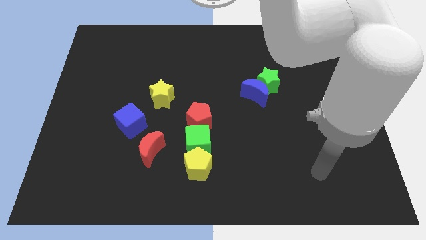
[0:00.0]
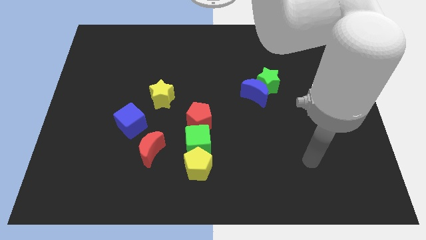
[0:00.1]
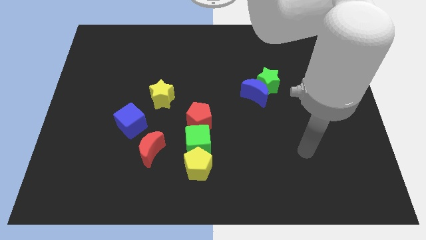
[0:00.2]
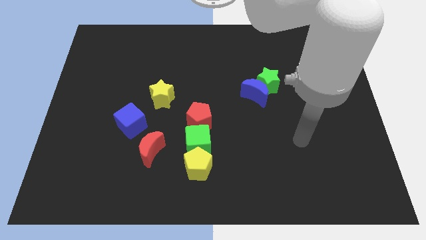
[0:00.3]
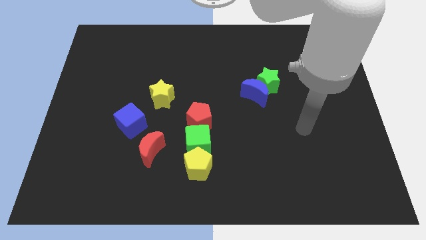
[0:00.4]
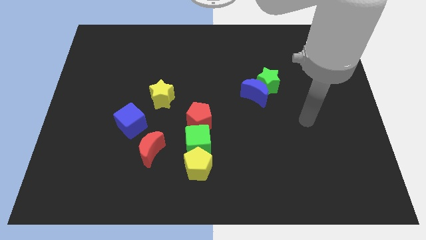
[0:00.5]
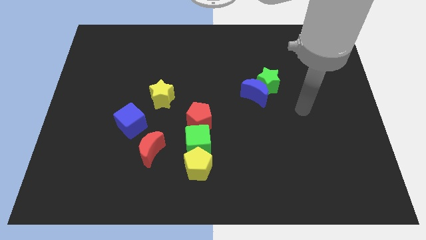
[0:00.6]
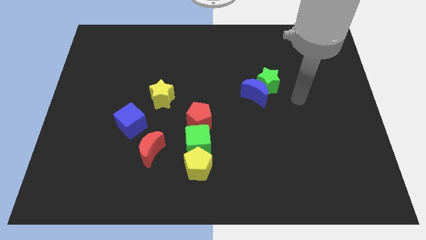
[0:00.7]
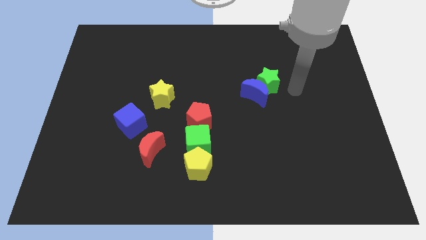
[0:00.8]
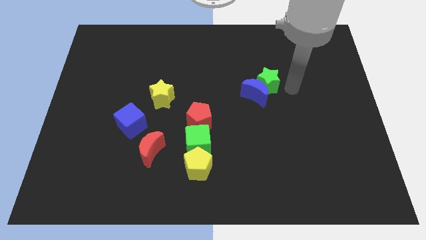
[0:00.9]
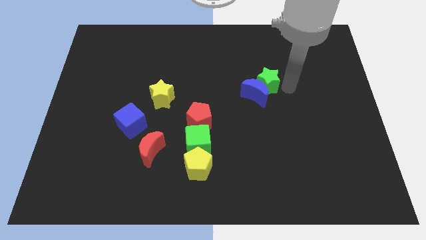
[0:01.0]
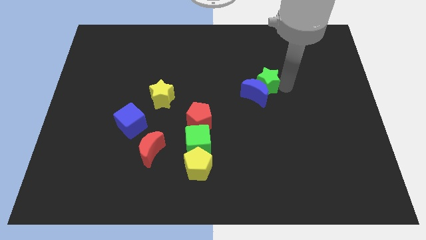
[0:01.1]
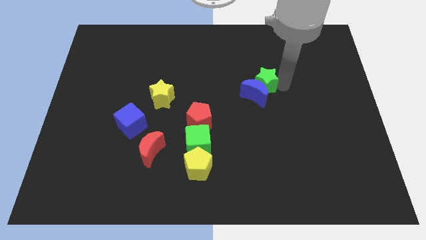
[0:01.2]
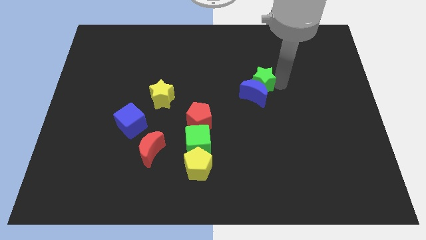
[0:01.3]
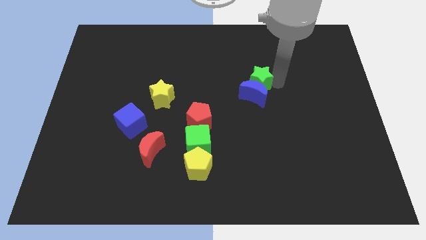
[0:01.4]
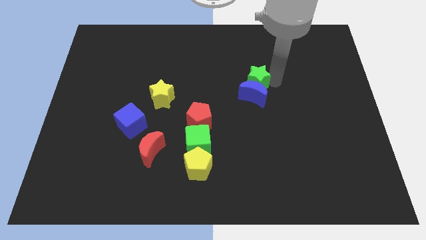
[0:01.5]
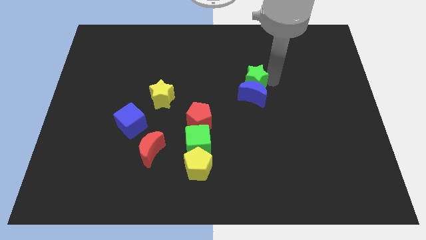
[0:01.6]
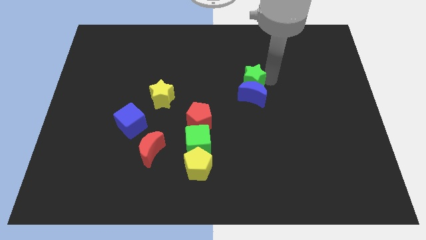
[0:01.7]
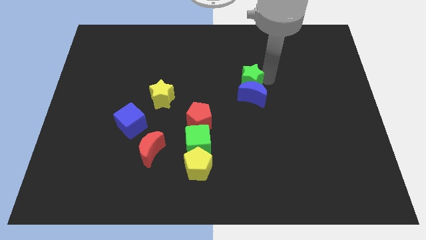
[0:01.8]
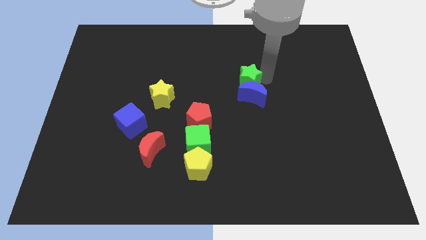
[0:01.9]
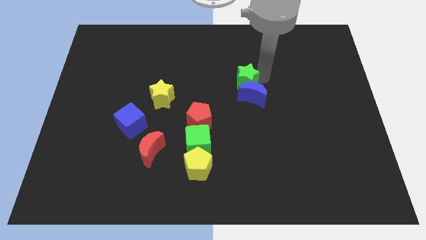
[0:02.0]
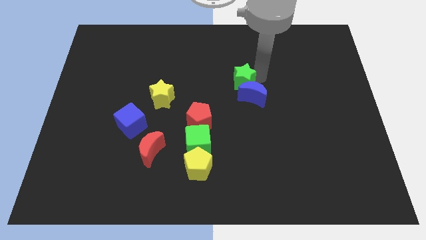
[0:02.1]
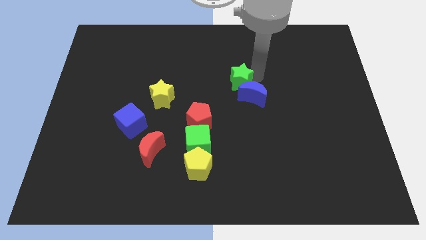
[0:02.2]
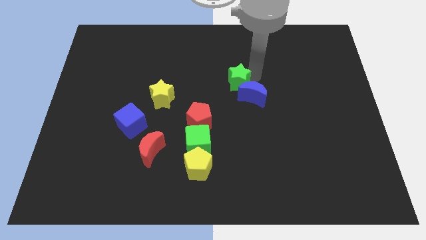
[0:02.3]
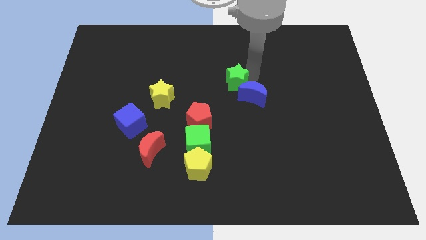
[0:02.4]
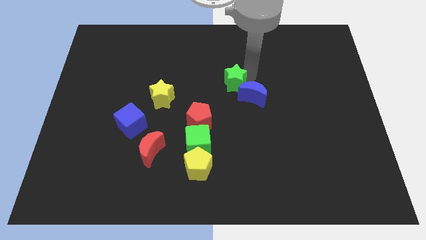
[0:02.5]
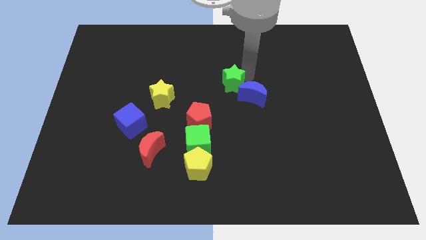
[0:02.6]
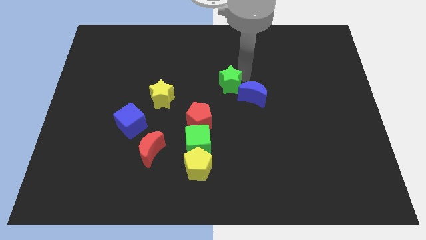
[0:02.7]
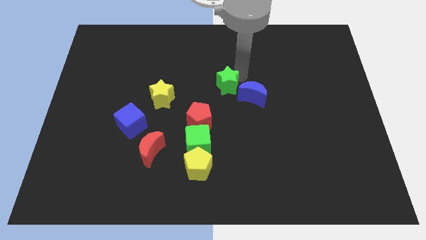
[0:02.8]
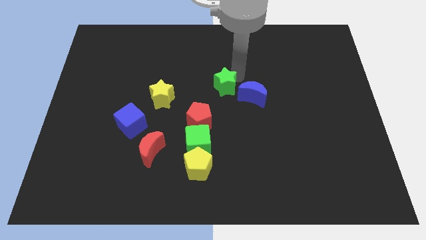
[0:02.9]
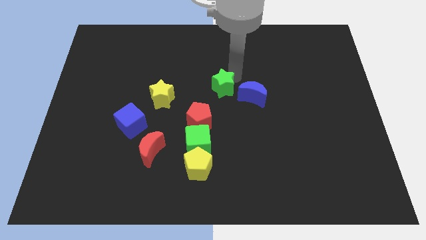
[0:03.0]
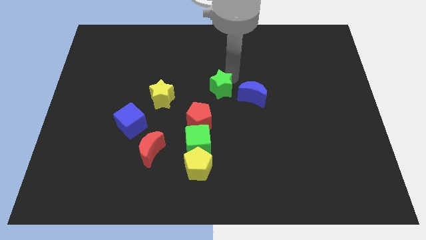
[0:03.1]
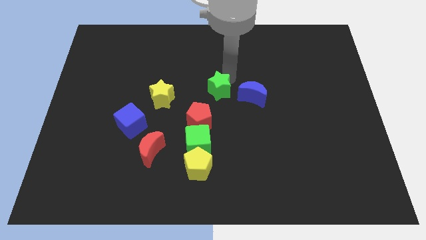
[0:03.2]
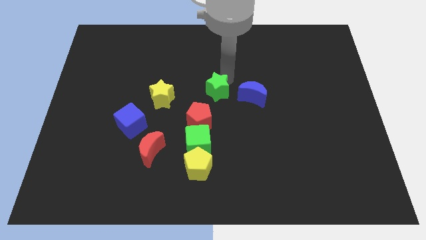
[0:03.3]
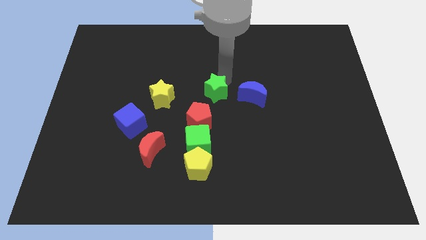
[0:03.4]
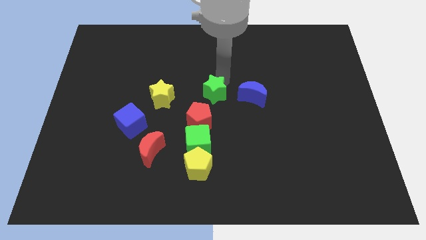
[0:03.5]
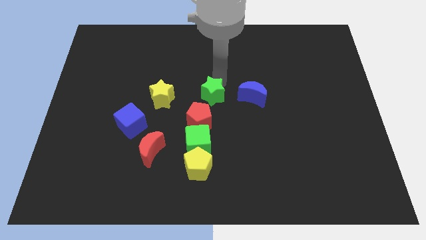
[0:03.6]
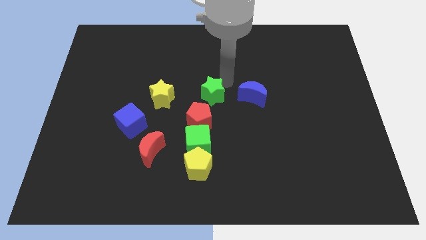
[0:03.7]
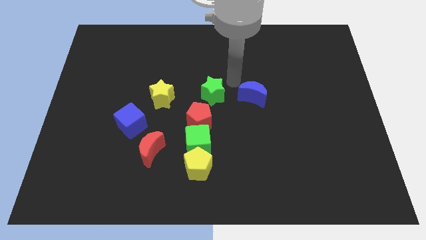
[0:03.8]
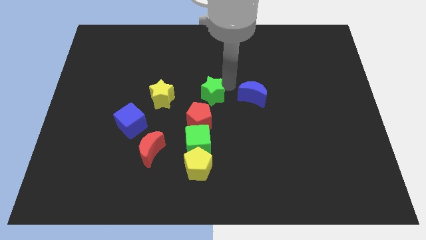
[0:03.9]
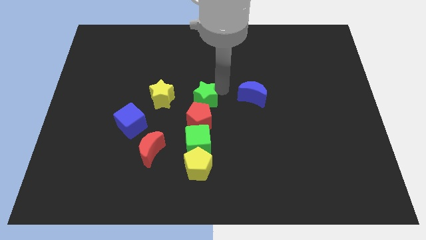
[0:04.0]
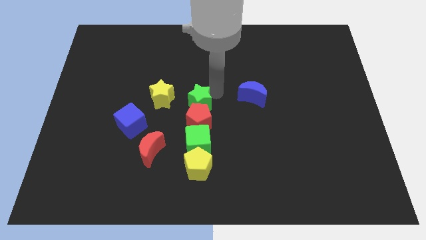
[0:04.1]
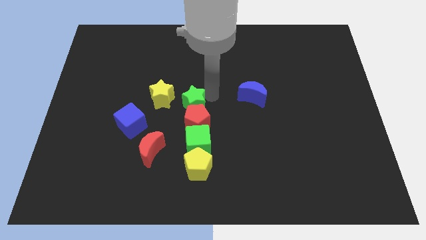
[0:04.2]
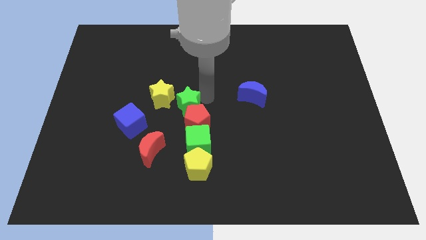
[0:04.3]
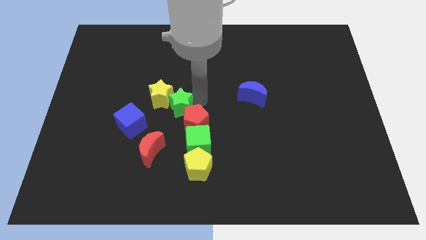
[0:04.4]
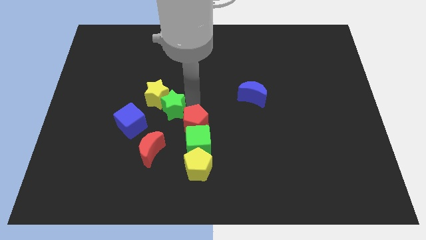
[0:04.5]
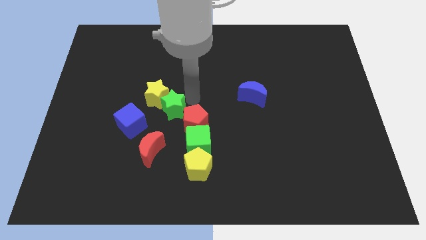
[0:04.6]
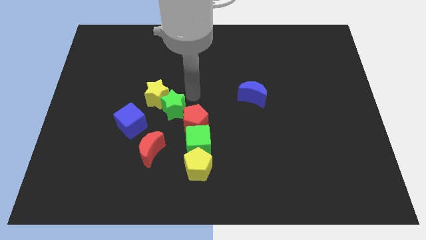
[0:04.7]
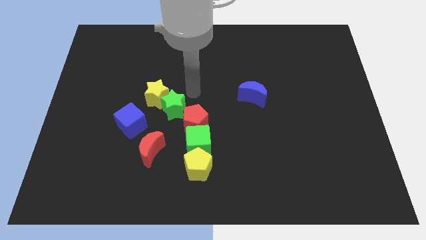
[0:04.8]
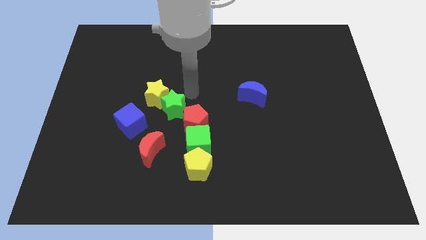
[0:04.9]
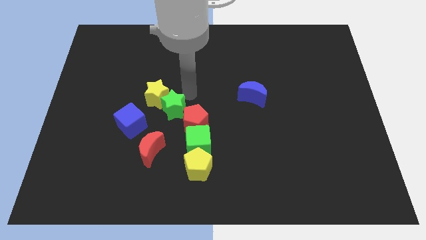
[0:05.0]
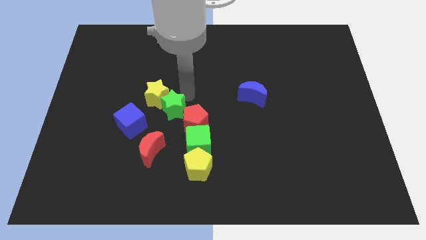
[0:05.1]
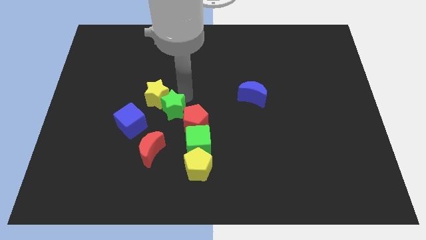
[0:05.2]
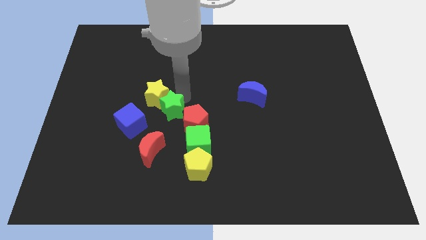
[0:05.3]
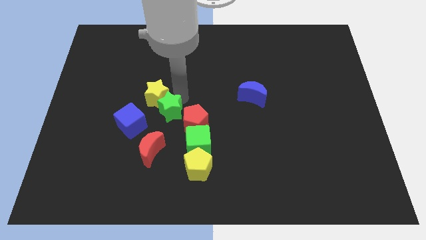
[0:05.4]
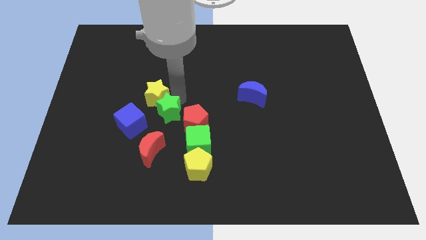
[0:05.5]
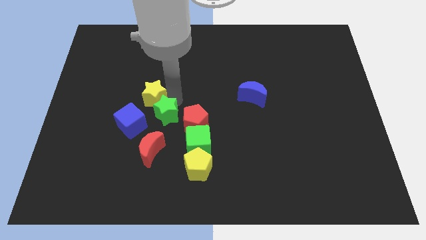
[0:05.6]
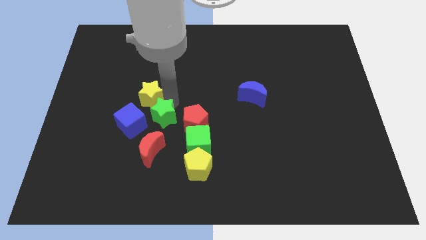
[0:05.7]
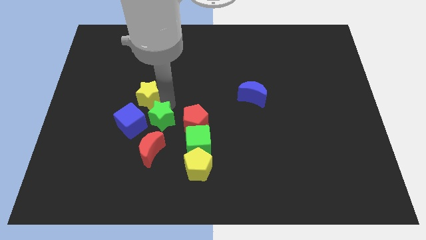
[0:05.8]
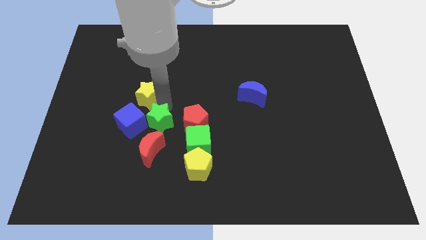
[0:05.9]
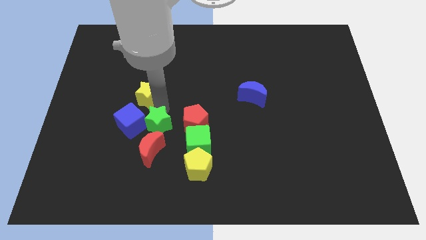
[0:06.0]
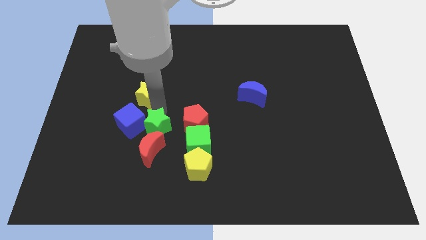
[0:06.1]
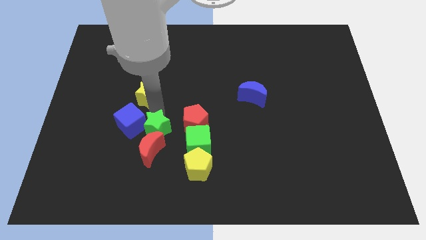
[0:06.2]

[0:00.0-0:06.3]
move the green star next to the red moon

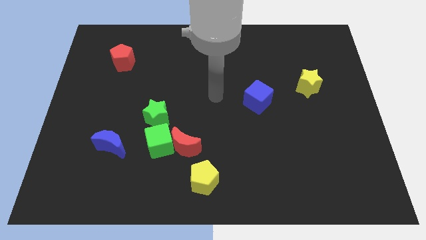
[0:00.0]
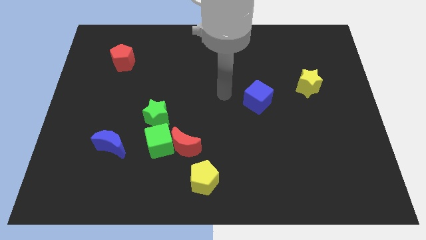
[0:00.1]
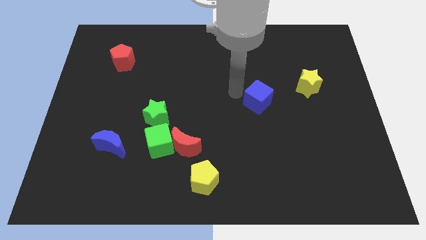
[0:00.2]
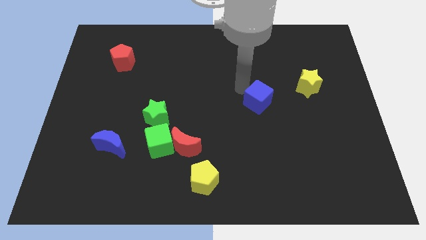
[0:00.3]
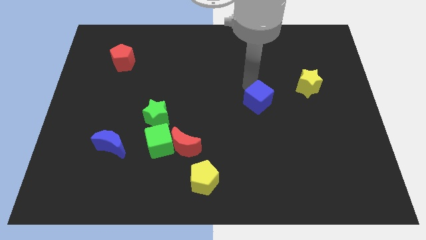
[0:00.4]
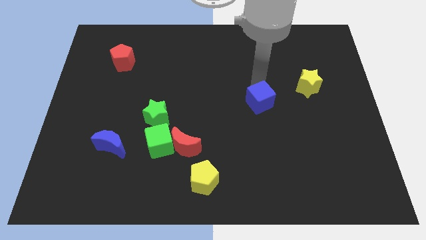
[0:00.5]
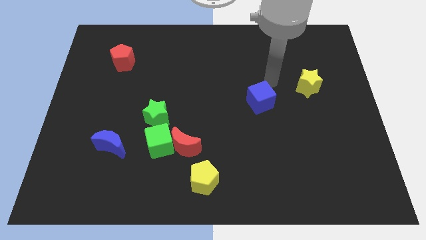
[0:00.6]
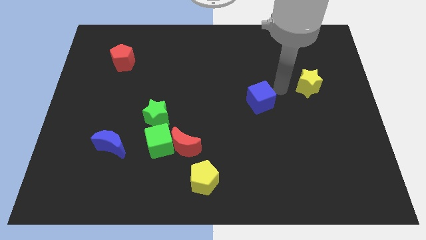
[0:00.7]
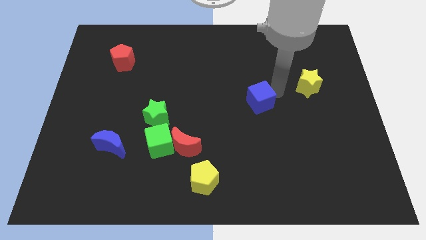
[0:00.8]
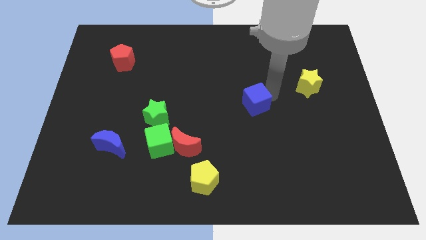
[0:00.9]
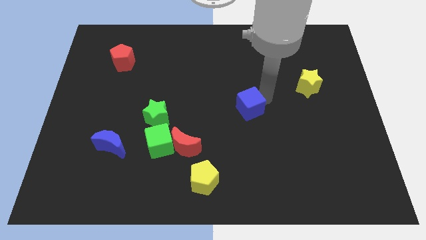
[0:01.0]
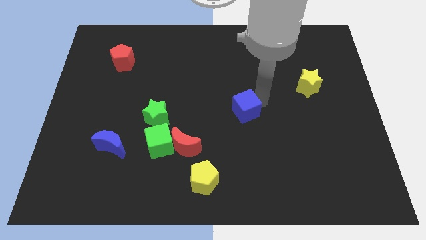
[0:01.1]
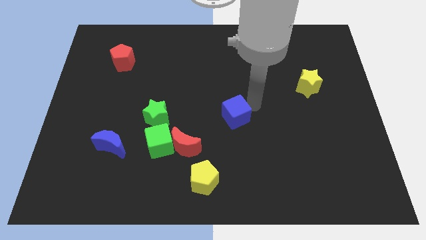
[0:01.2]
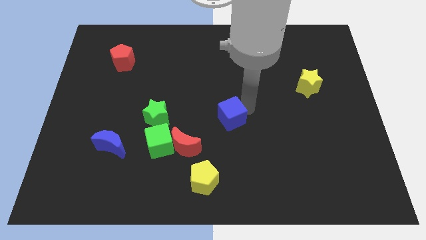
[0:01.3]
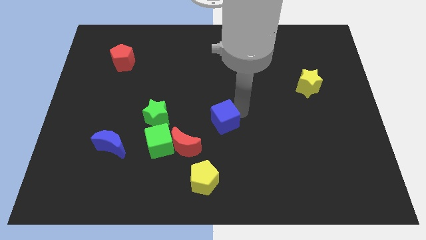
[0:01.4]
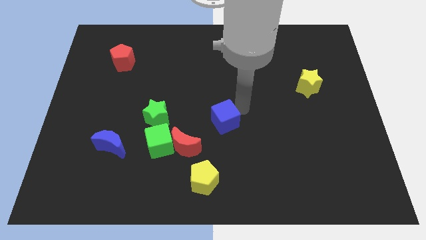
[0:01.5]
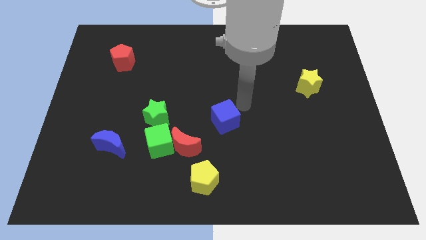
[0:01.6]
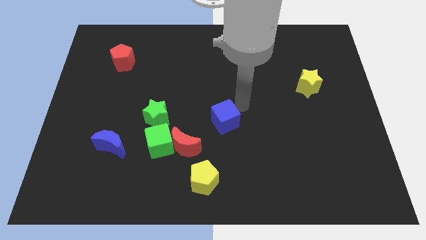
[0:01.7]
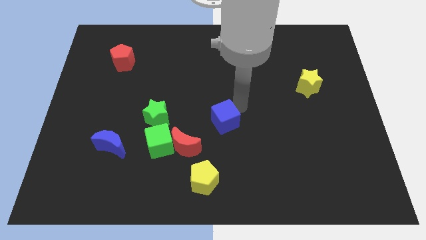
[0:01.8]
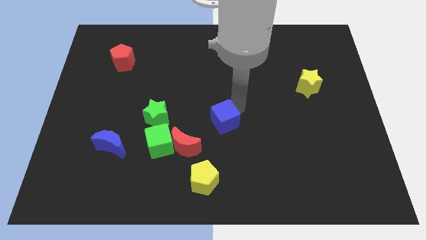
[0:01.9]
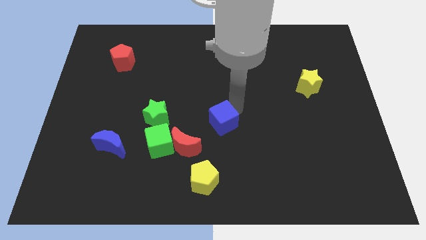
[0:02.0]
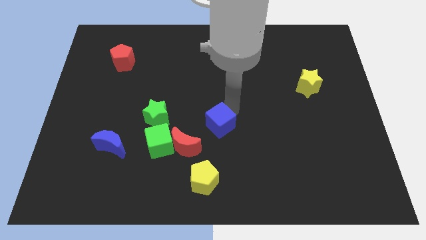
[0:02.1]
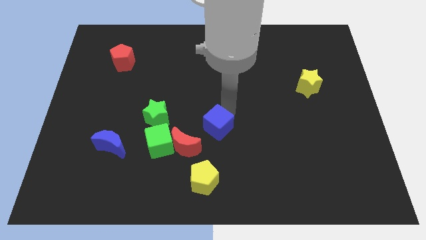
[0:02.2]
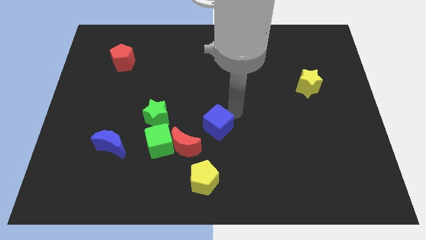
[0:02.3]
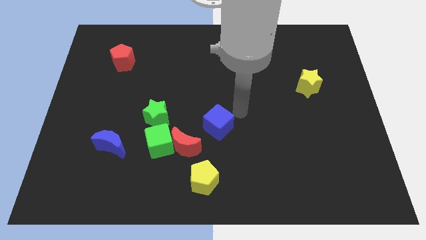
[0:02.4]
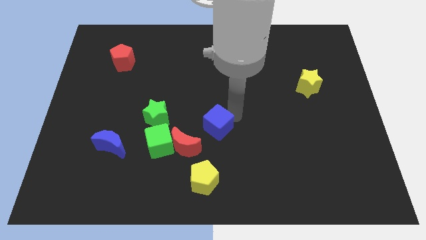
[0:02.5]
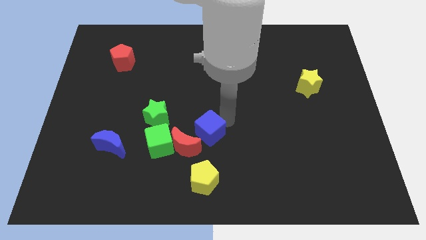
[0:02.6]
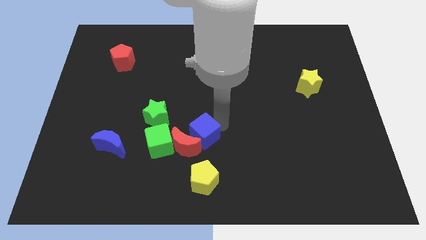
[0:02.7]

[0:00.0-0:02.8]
slide the blue cube to the red moon
